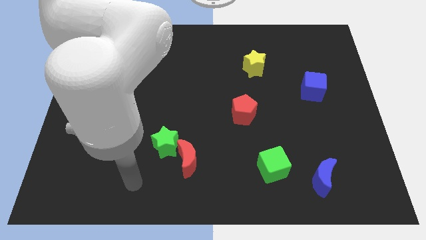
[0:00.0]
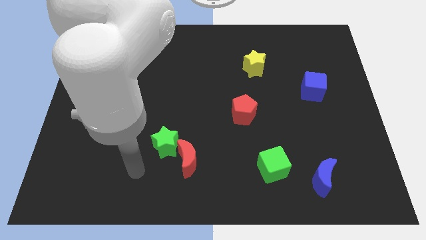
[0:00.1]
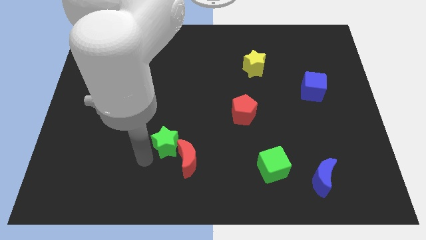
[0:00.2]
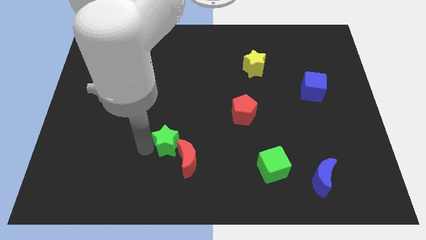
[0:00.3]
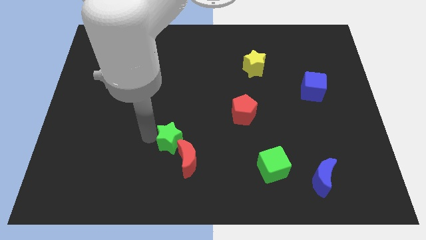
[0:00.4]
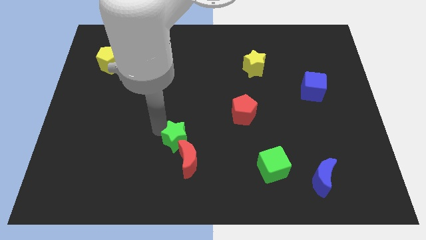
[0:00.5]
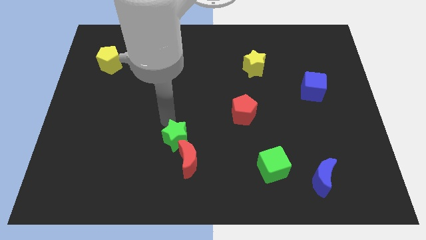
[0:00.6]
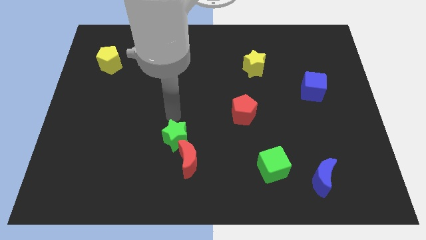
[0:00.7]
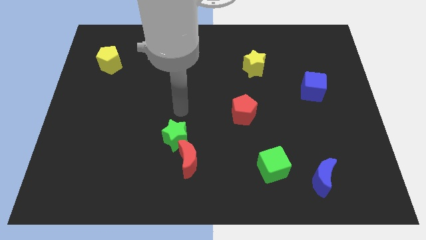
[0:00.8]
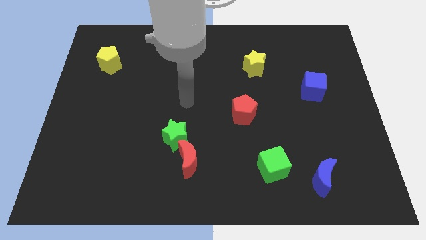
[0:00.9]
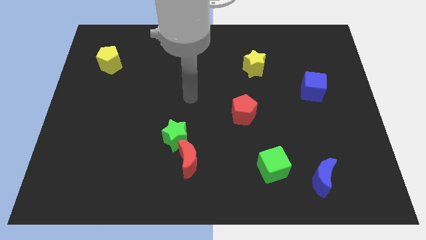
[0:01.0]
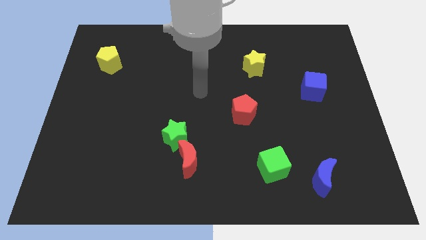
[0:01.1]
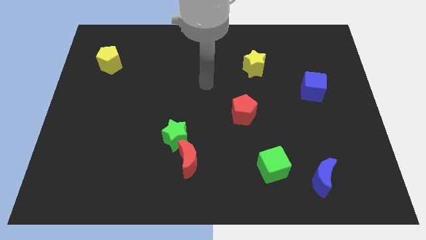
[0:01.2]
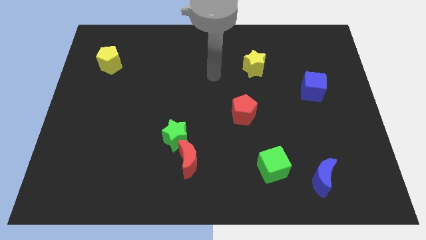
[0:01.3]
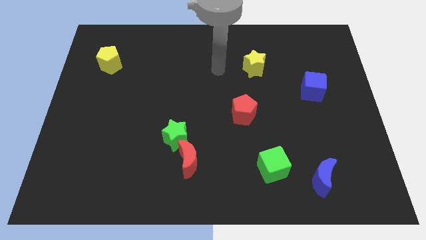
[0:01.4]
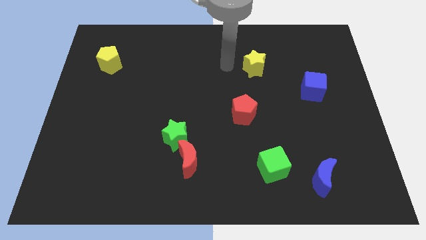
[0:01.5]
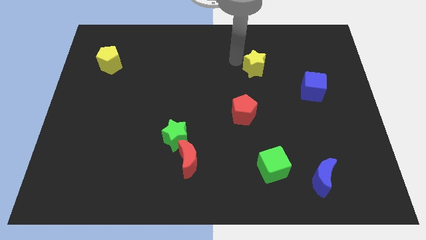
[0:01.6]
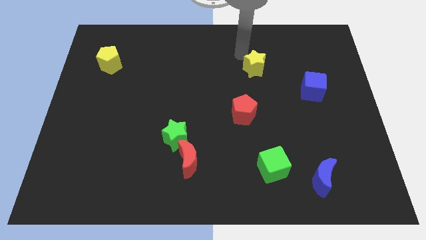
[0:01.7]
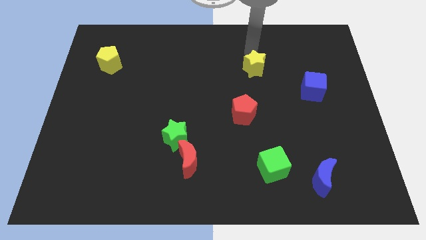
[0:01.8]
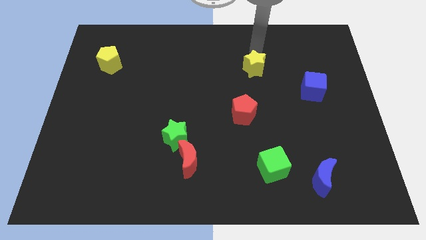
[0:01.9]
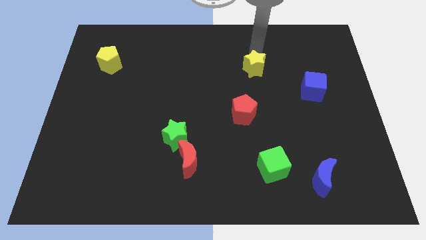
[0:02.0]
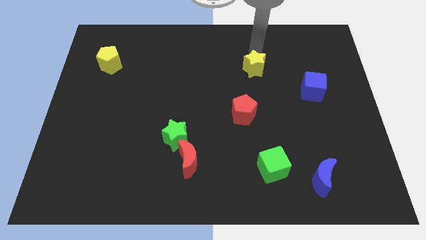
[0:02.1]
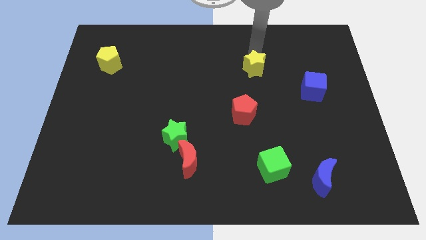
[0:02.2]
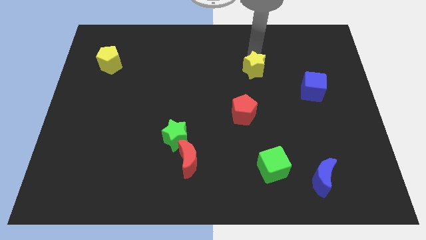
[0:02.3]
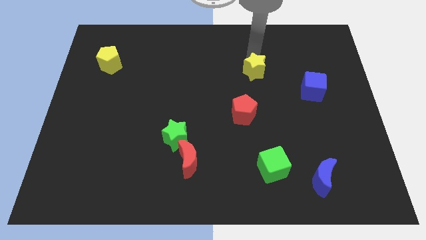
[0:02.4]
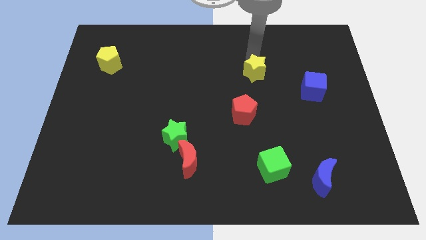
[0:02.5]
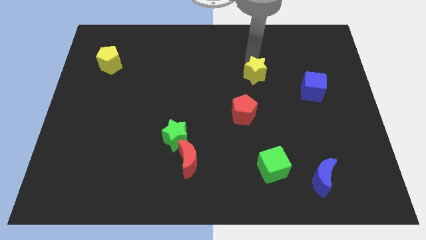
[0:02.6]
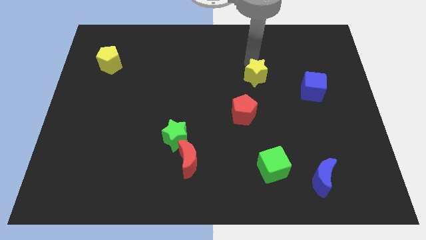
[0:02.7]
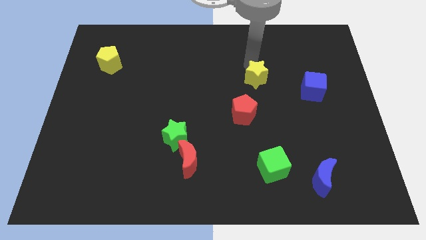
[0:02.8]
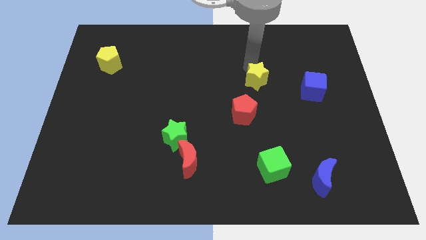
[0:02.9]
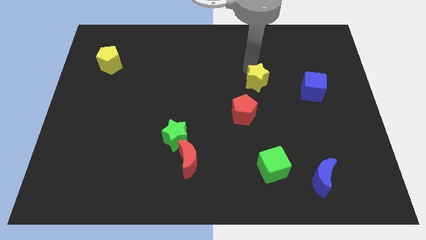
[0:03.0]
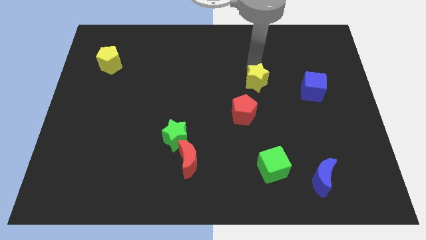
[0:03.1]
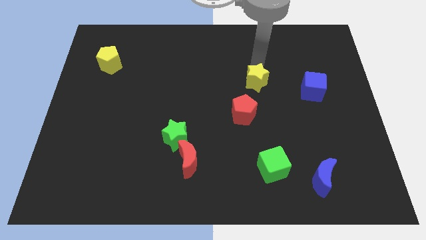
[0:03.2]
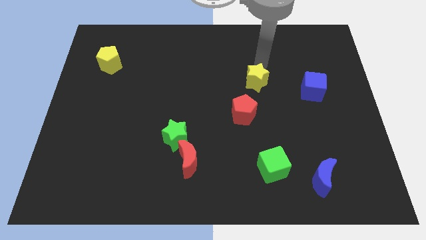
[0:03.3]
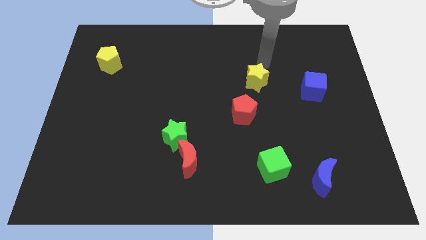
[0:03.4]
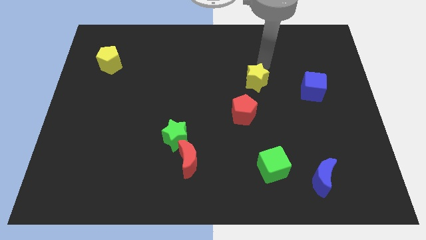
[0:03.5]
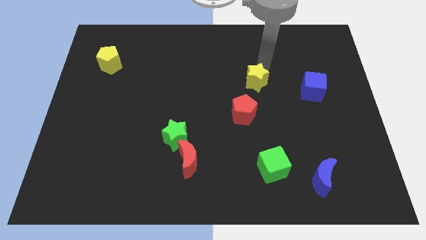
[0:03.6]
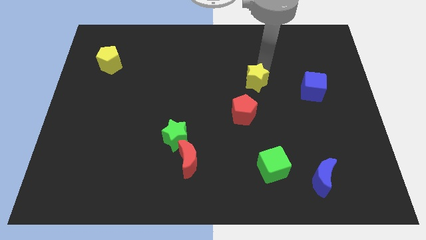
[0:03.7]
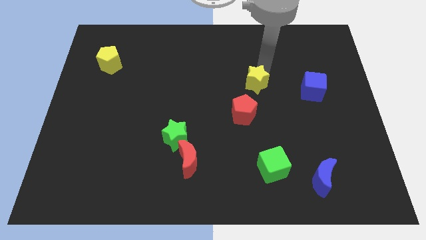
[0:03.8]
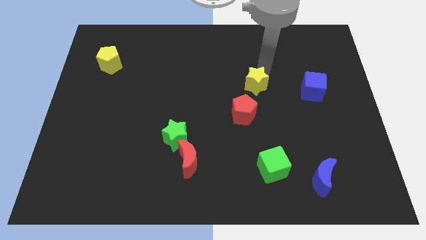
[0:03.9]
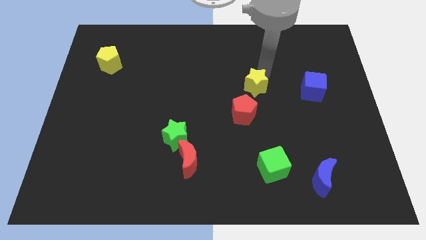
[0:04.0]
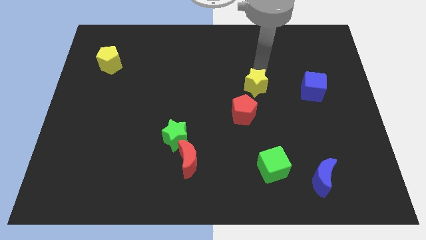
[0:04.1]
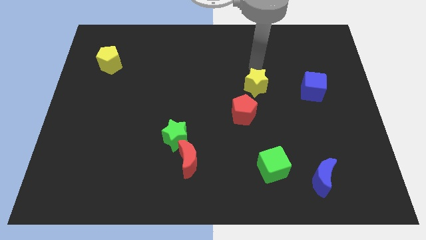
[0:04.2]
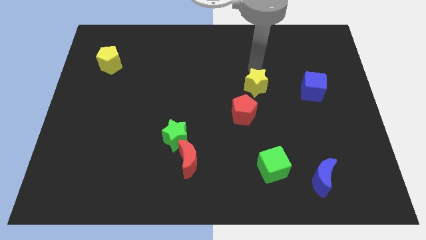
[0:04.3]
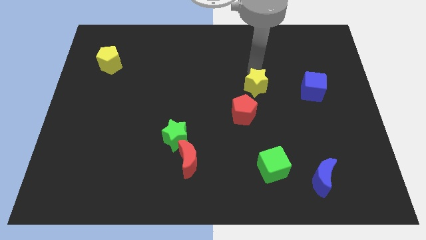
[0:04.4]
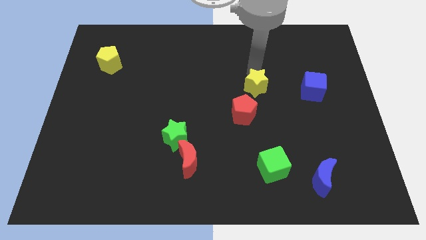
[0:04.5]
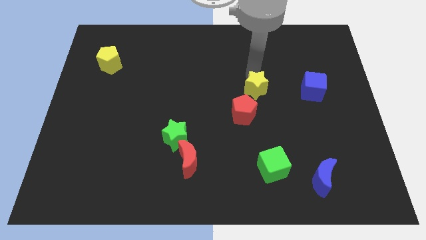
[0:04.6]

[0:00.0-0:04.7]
slightly push the yellow star down

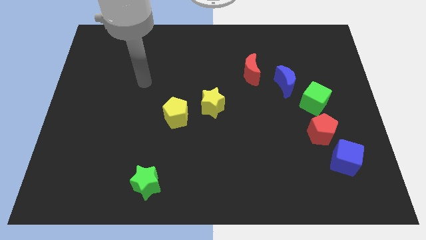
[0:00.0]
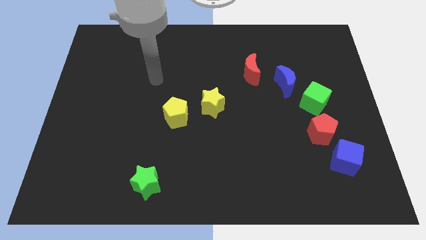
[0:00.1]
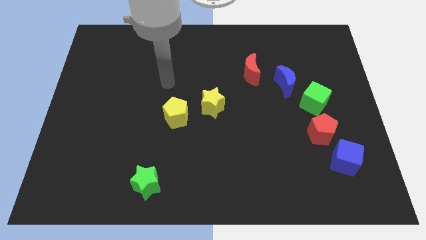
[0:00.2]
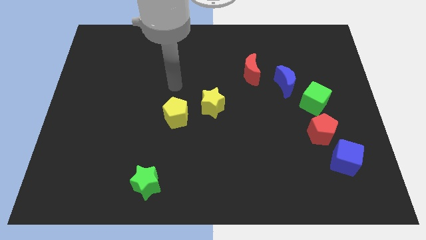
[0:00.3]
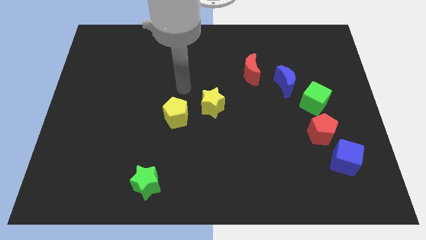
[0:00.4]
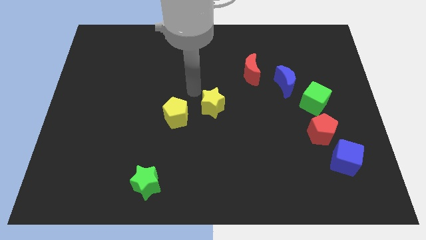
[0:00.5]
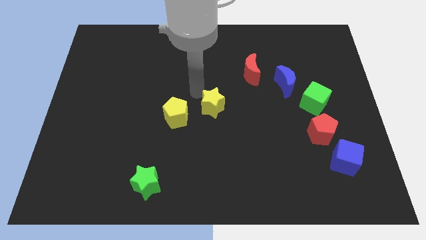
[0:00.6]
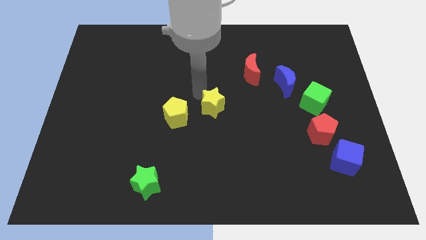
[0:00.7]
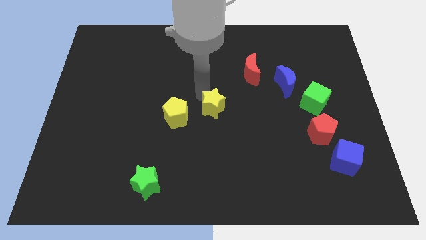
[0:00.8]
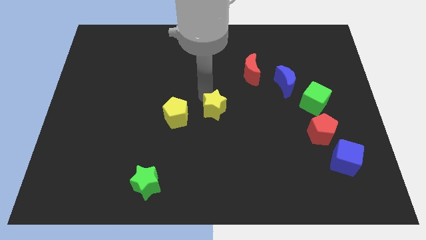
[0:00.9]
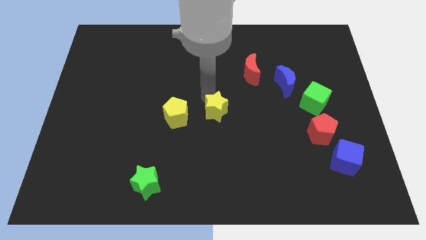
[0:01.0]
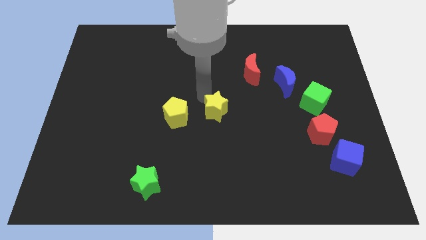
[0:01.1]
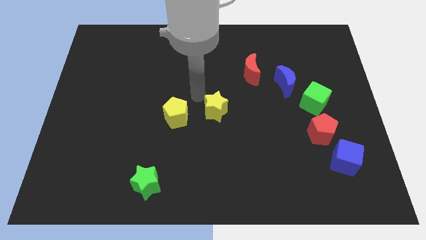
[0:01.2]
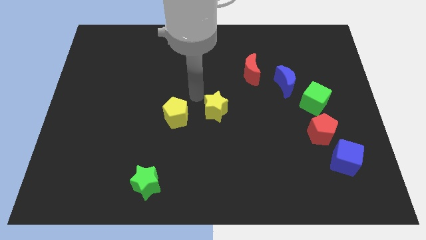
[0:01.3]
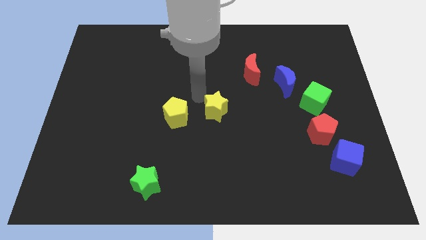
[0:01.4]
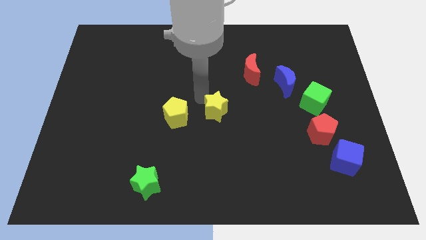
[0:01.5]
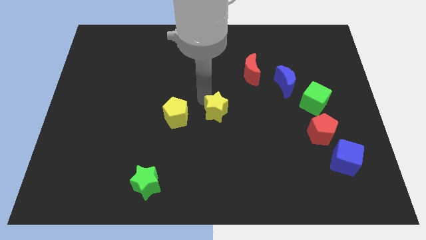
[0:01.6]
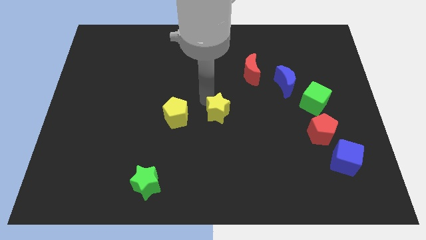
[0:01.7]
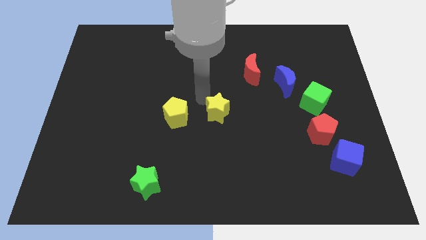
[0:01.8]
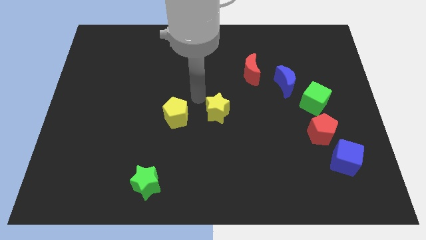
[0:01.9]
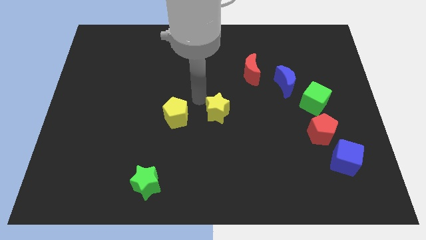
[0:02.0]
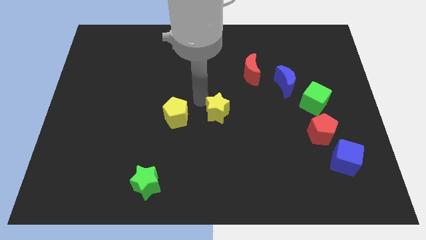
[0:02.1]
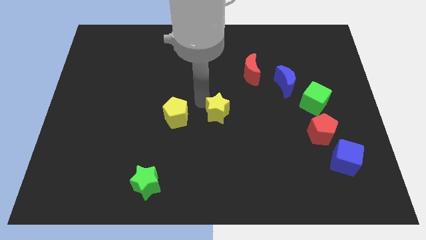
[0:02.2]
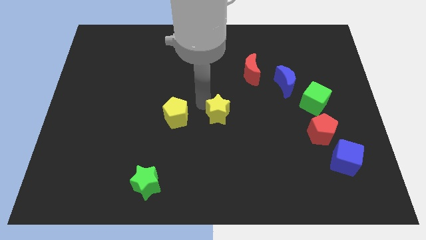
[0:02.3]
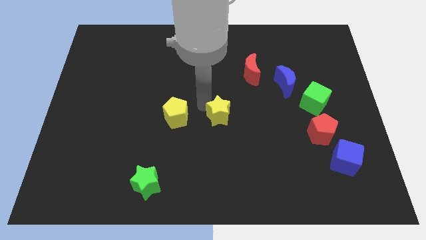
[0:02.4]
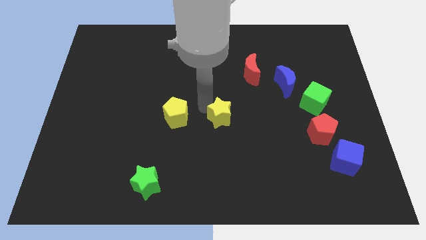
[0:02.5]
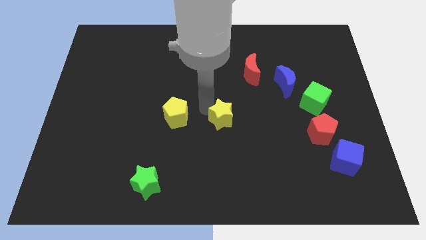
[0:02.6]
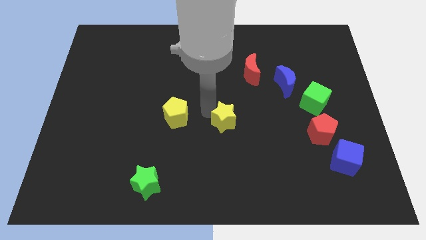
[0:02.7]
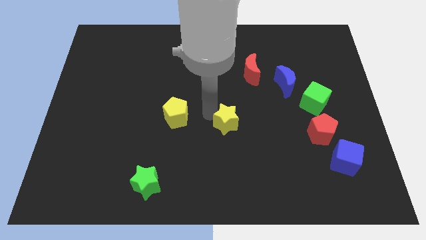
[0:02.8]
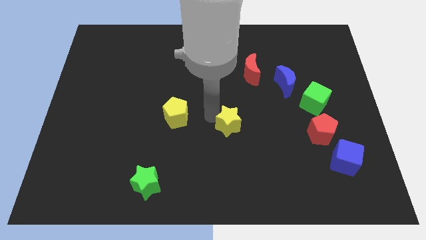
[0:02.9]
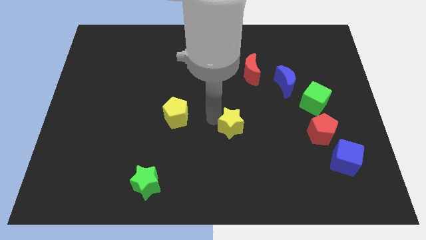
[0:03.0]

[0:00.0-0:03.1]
slide the yellow star down and right a little

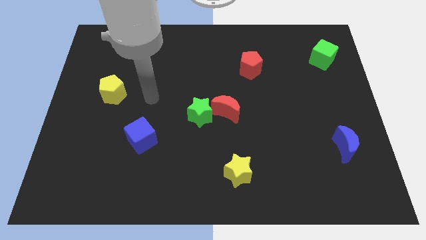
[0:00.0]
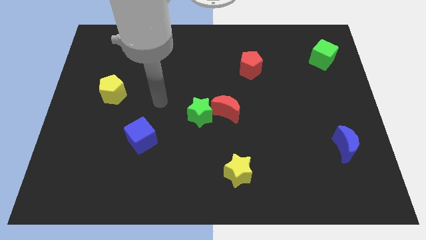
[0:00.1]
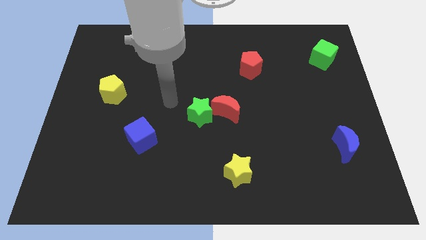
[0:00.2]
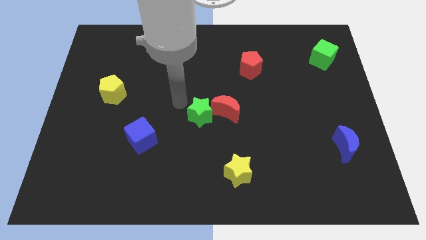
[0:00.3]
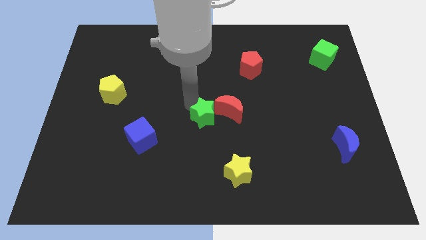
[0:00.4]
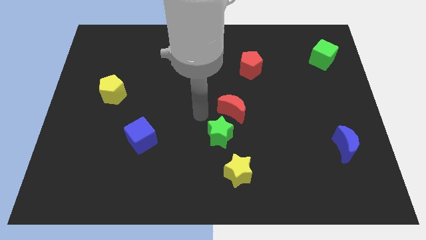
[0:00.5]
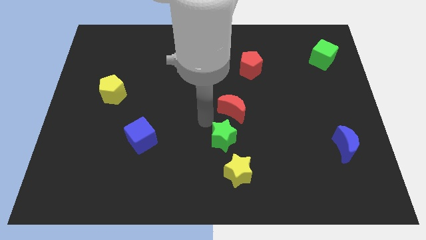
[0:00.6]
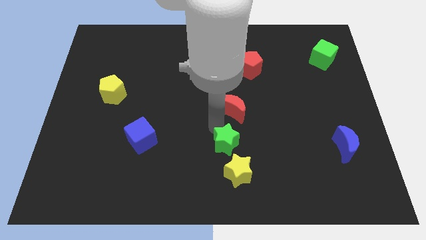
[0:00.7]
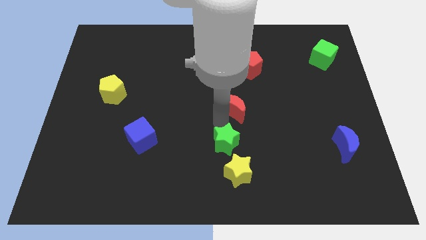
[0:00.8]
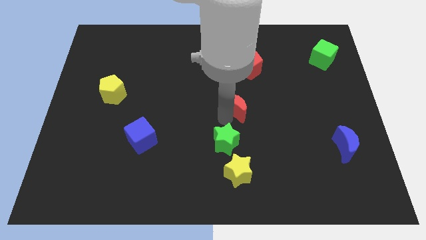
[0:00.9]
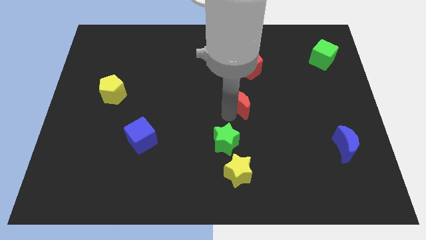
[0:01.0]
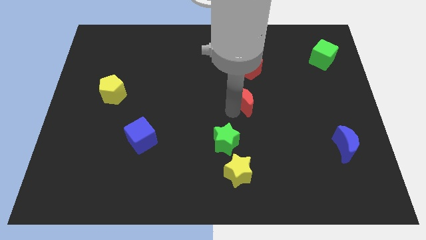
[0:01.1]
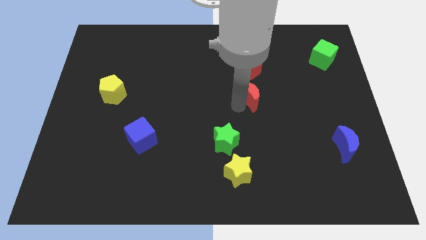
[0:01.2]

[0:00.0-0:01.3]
slightly push the red moon upwards and then right
